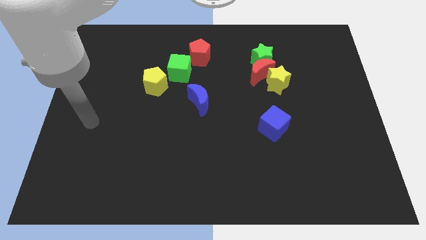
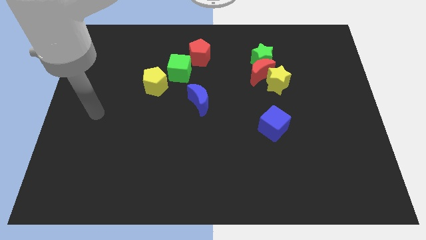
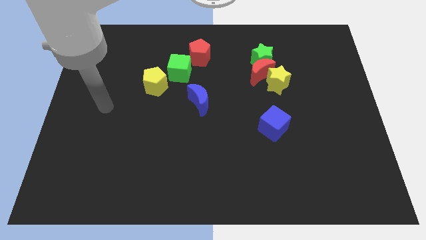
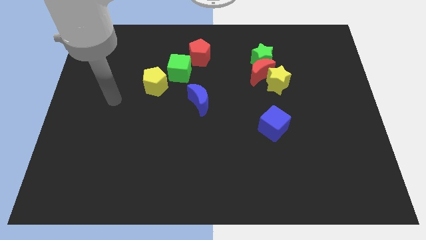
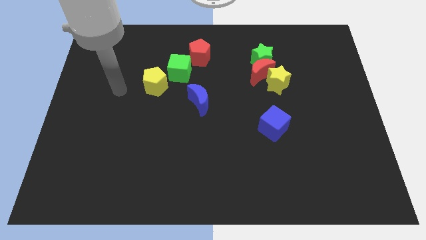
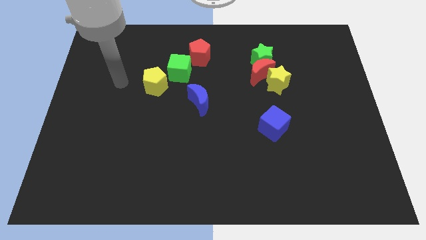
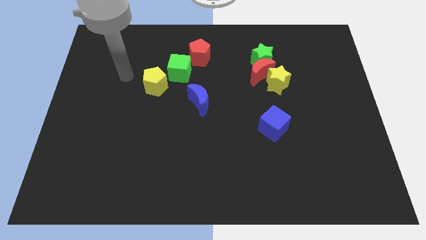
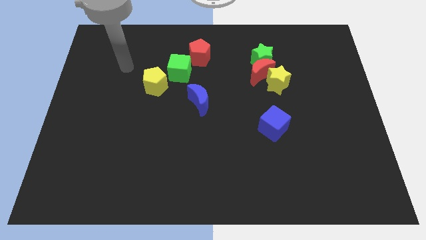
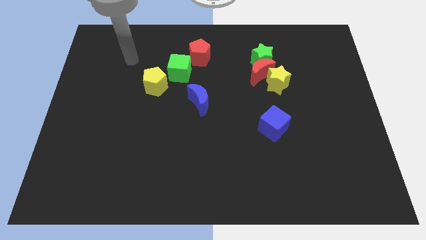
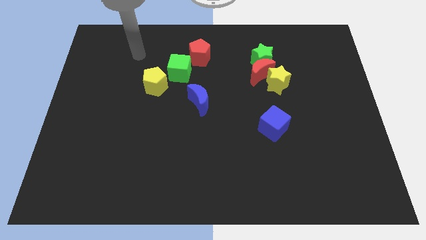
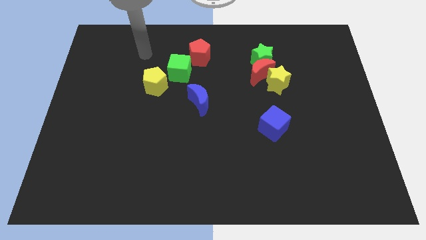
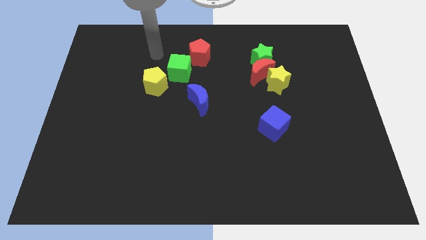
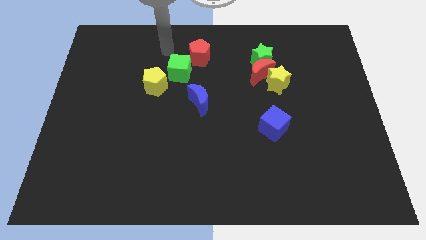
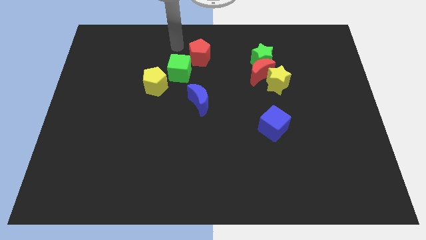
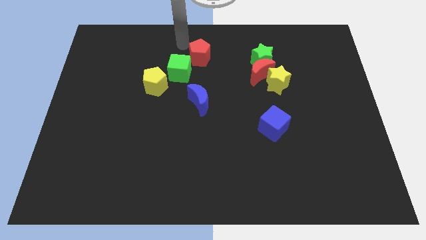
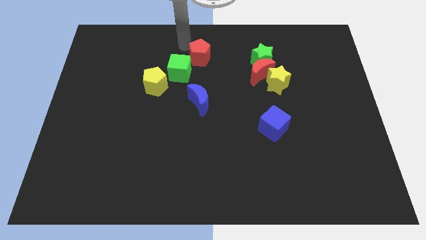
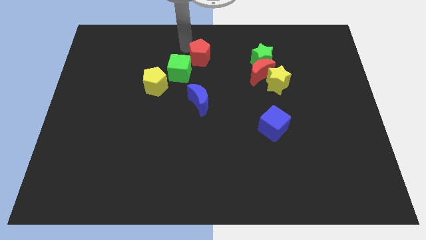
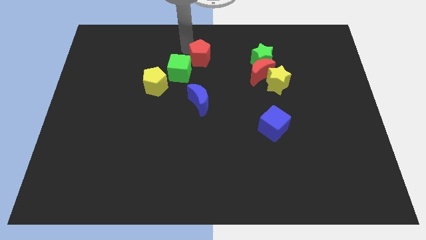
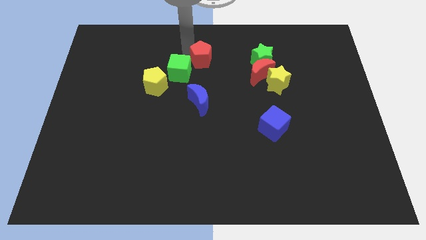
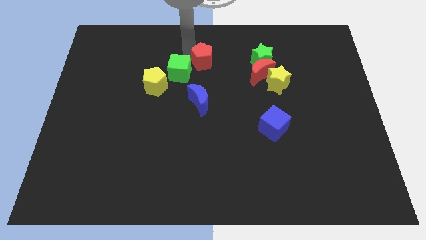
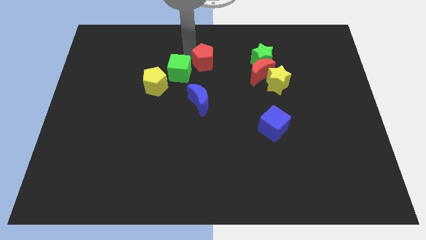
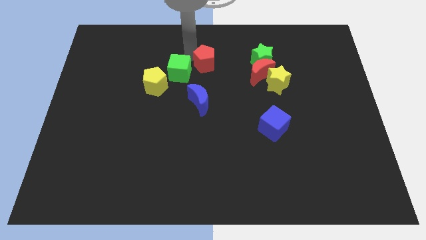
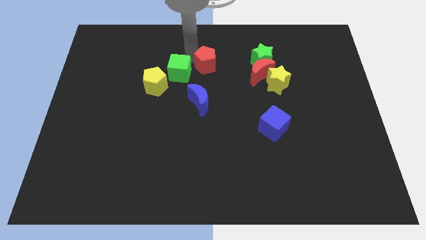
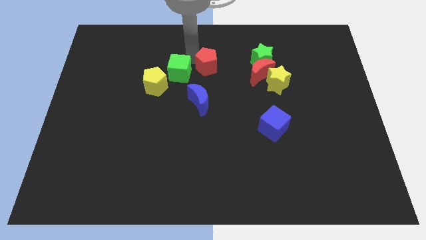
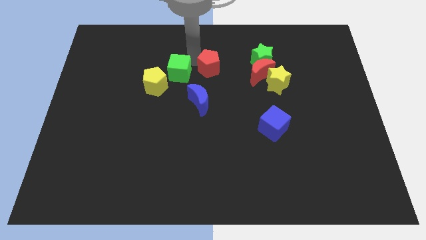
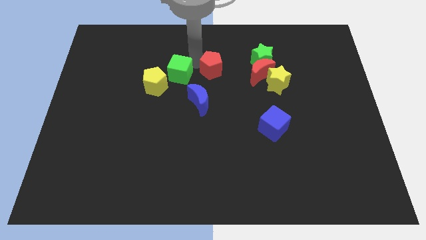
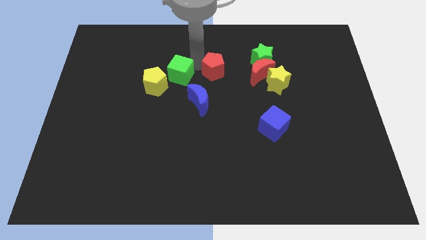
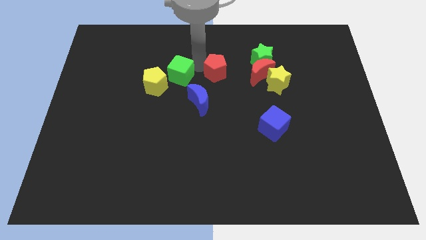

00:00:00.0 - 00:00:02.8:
slightly push the red pentagon diagonally downwards and right

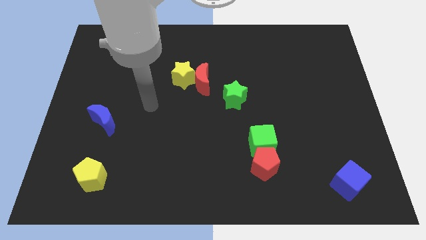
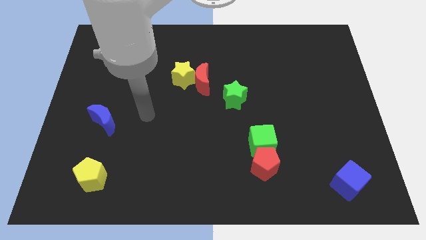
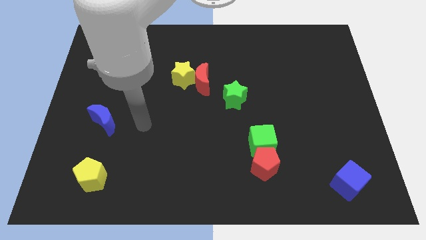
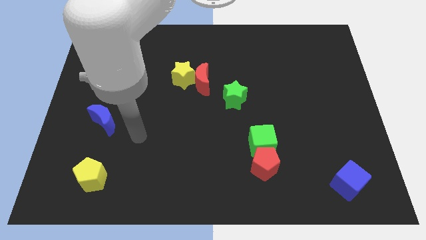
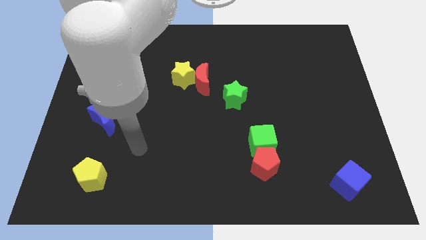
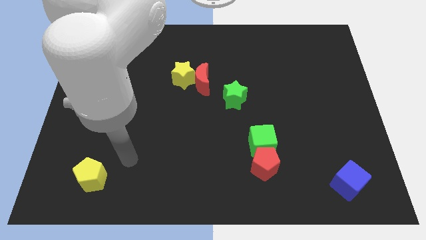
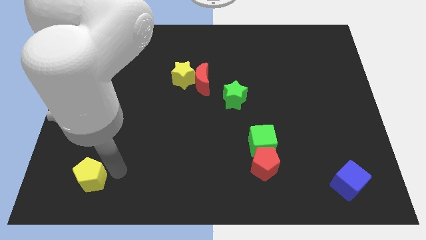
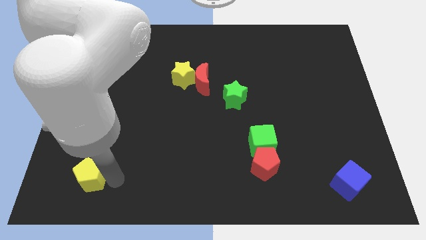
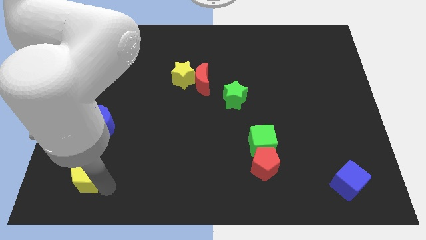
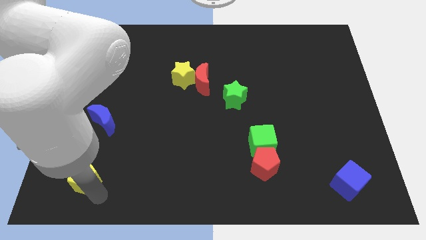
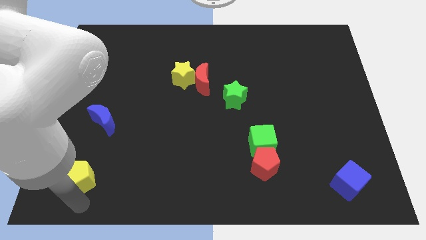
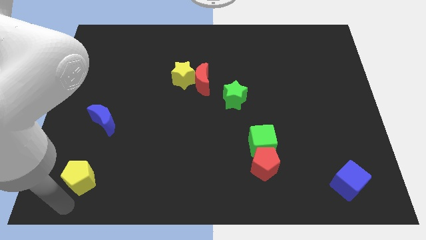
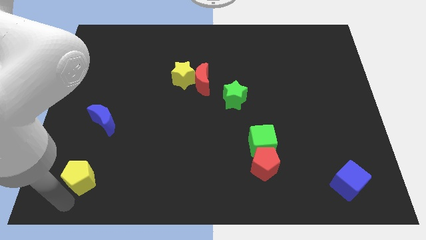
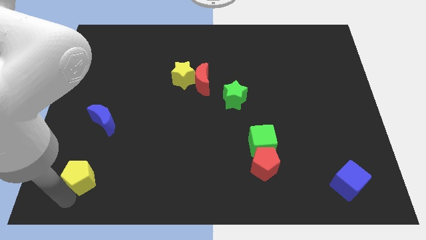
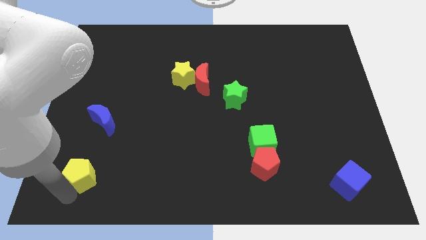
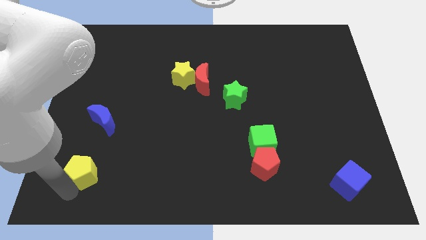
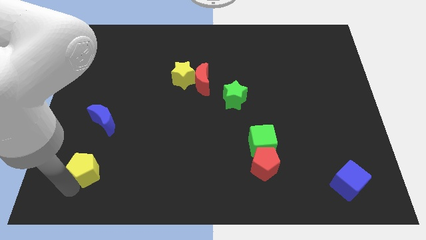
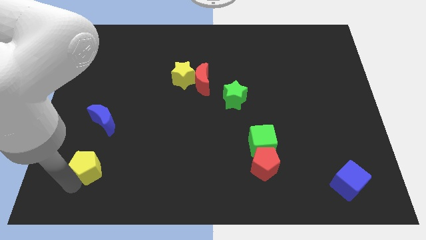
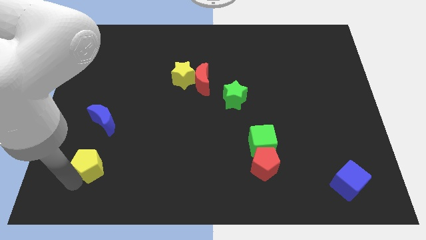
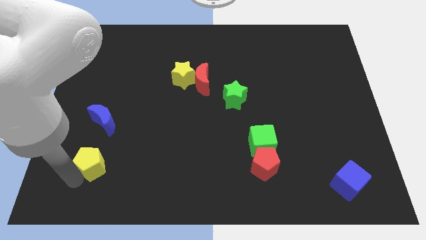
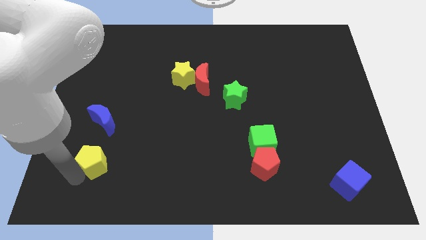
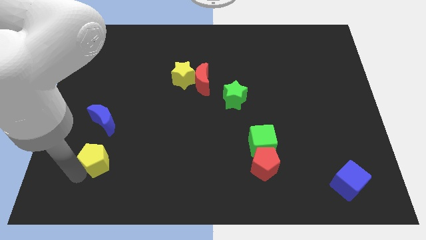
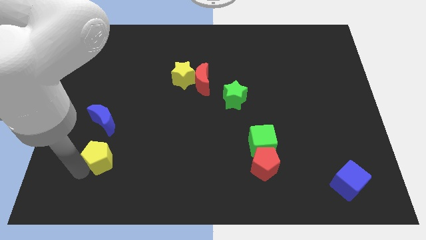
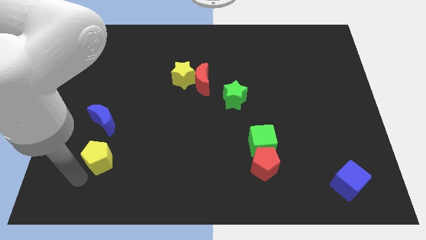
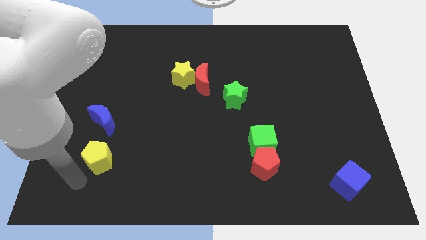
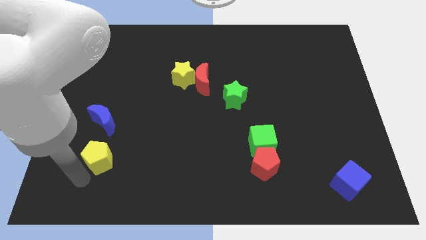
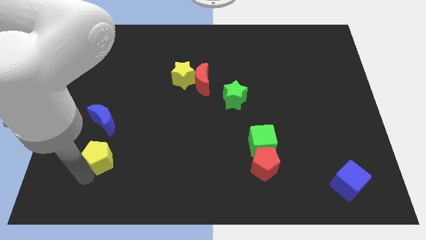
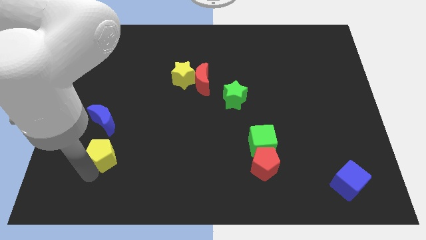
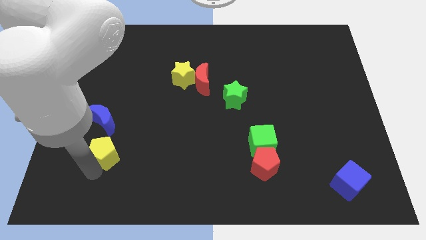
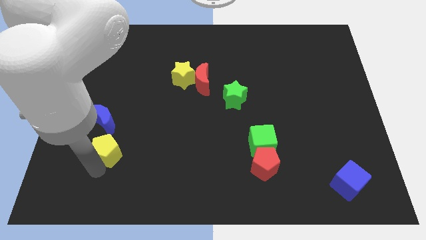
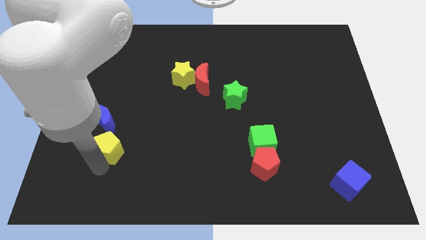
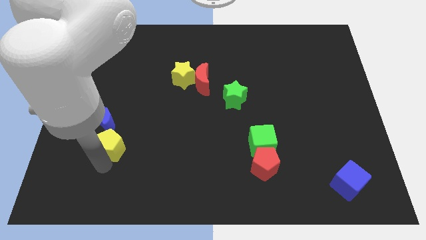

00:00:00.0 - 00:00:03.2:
move the yellow pentagon somewhat up

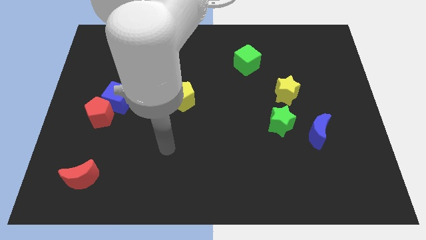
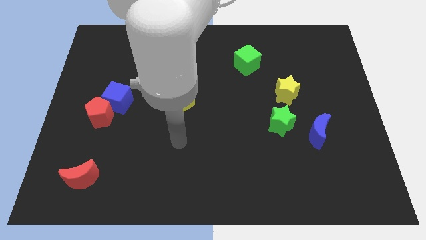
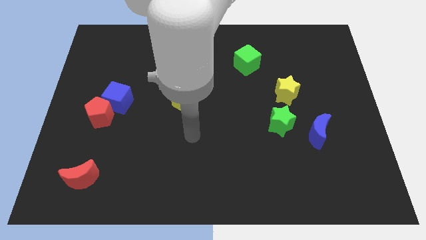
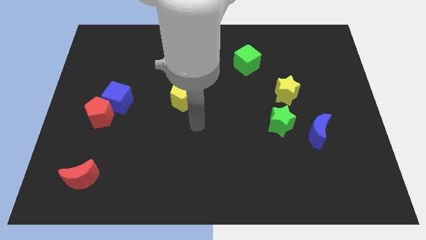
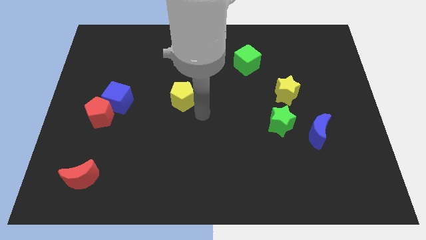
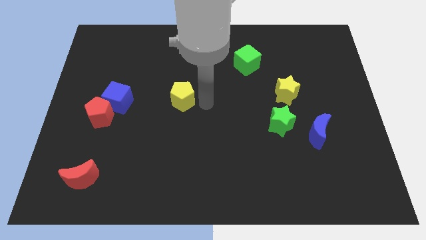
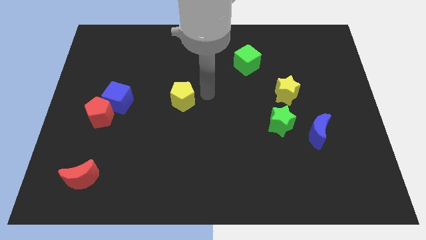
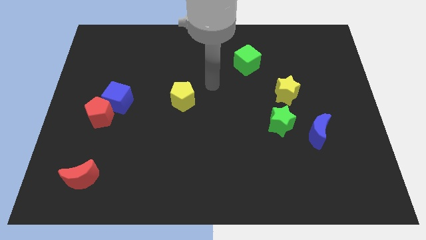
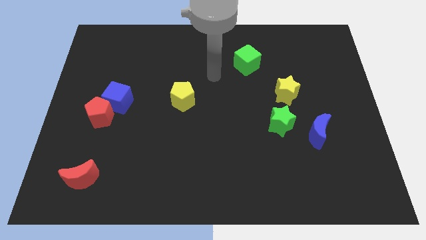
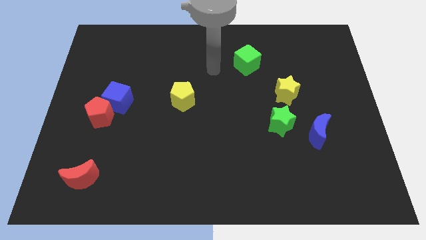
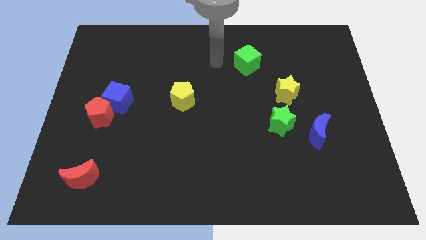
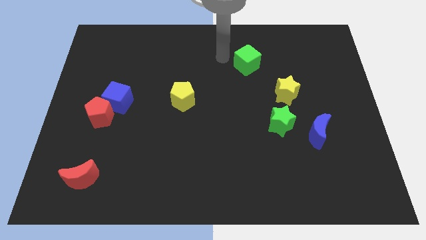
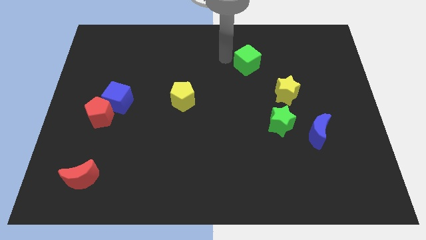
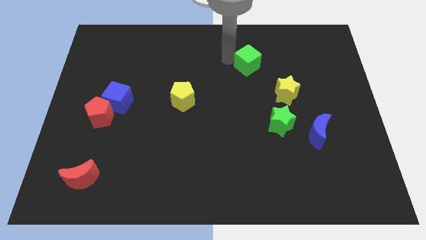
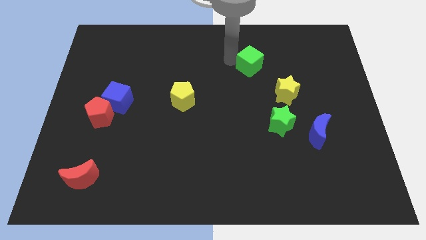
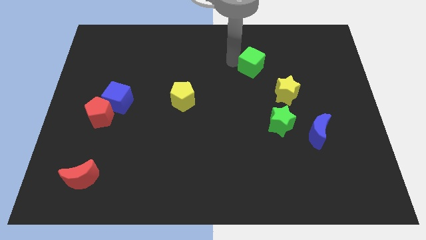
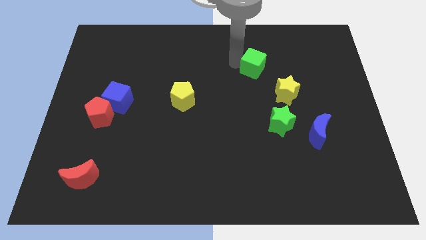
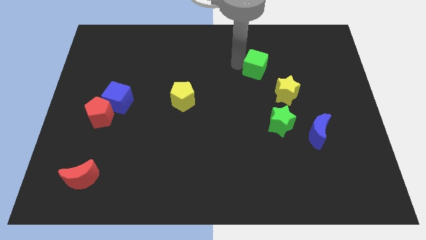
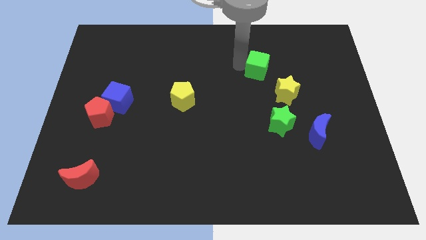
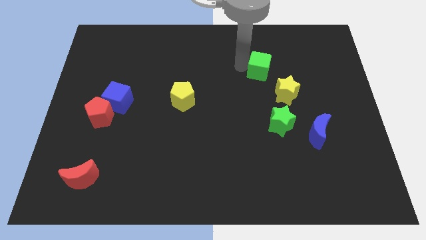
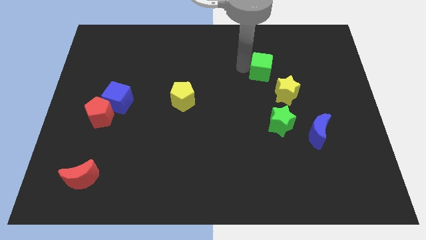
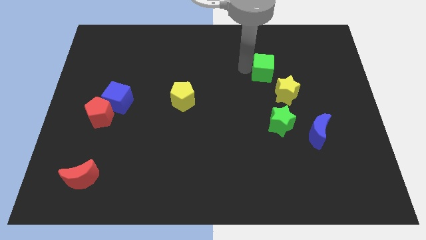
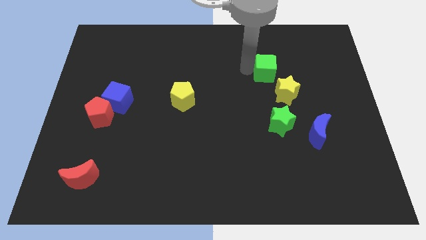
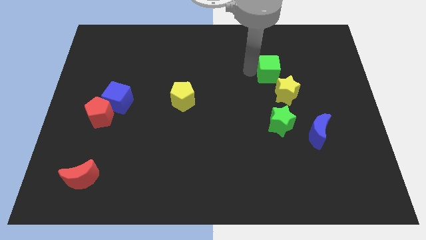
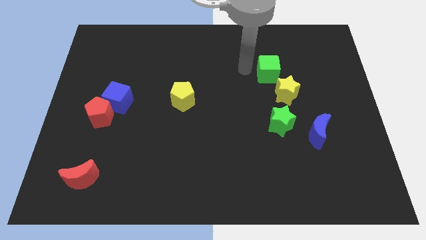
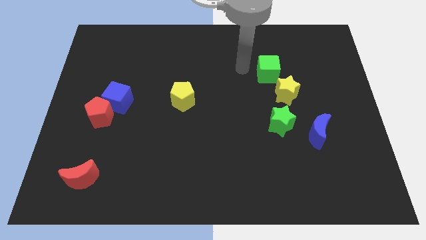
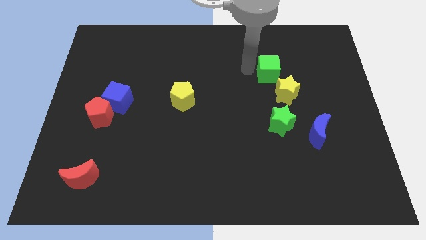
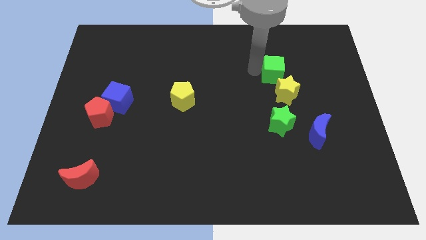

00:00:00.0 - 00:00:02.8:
move the green cube diagonally downwards and right a little
